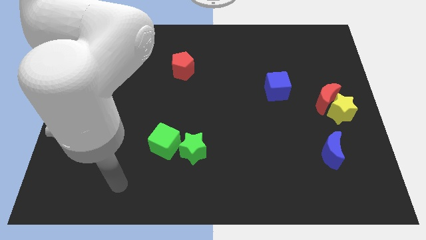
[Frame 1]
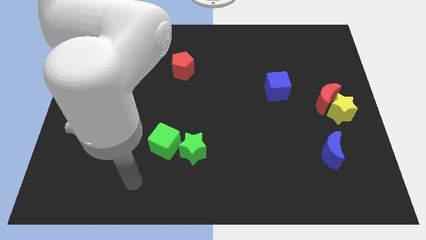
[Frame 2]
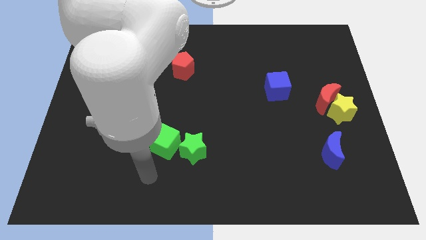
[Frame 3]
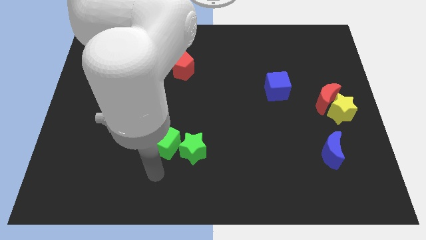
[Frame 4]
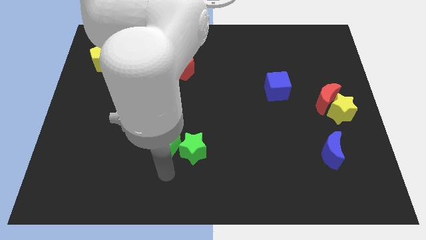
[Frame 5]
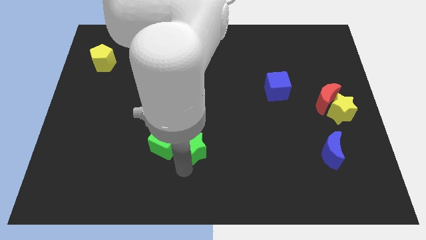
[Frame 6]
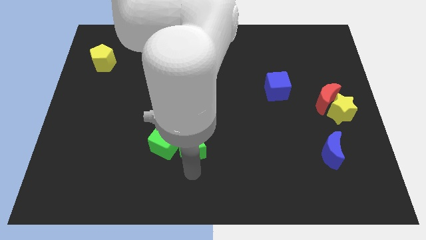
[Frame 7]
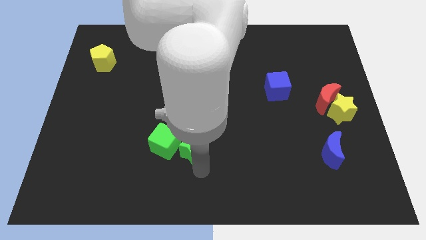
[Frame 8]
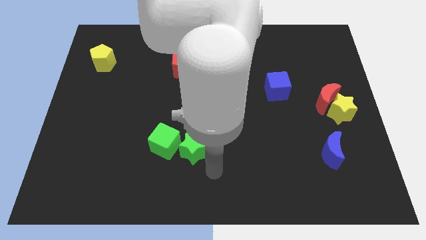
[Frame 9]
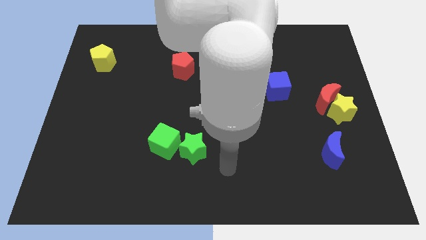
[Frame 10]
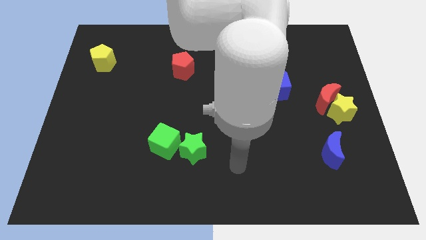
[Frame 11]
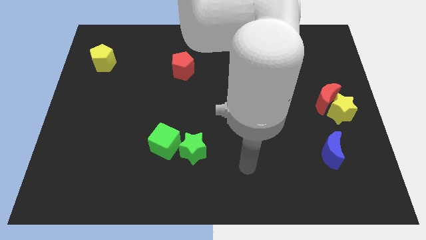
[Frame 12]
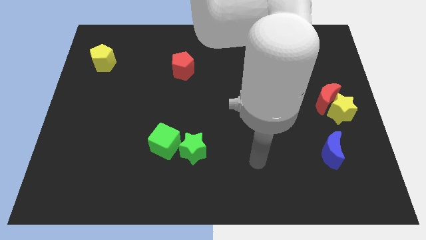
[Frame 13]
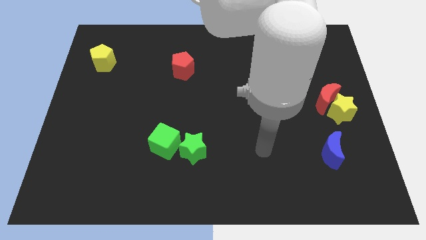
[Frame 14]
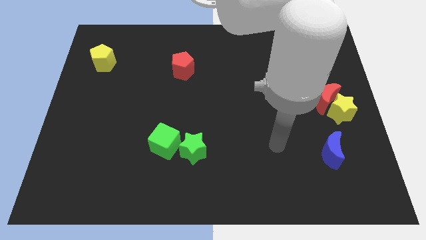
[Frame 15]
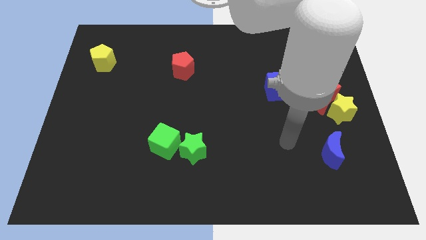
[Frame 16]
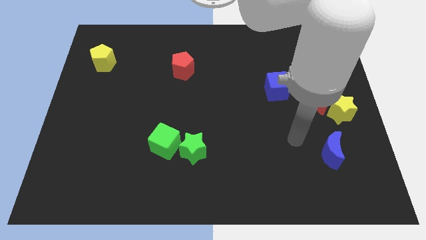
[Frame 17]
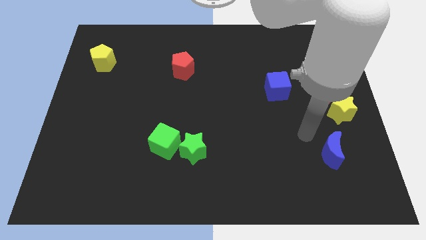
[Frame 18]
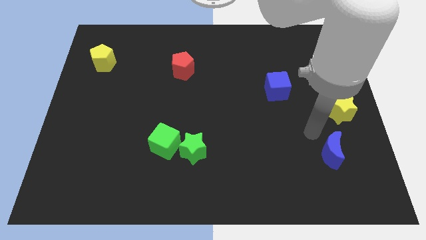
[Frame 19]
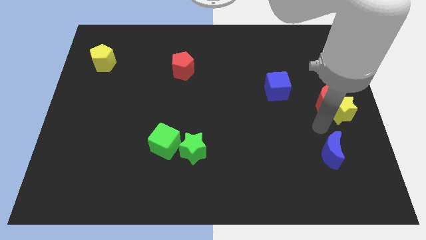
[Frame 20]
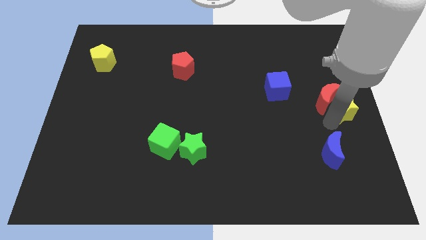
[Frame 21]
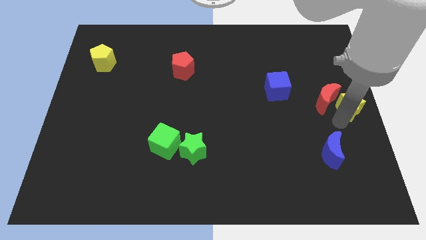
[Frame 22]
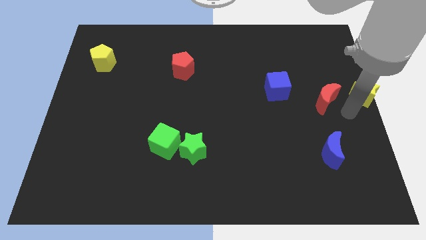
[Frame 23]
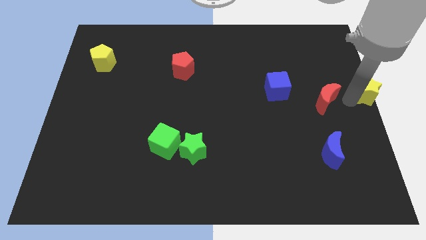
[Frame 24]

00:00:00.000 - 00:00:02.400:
separate the red moon from the yellow star

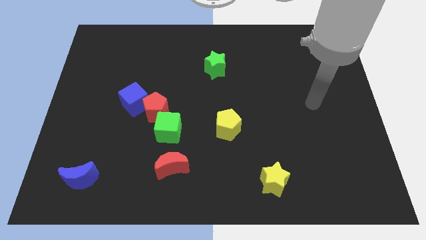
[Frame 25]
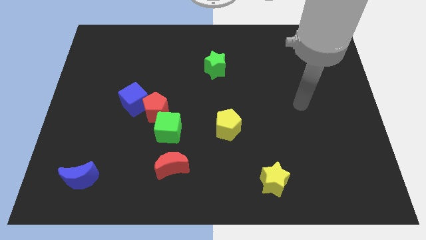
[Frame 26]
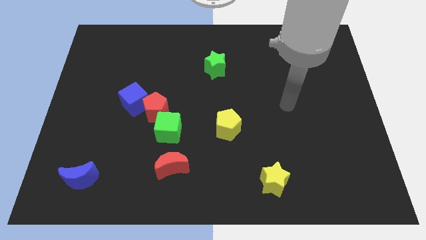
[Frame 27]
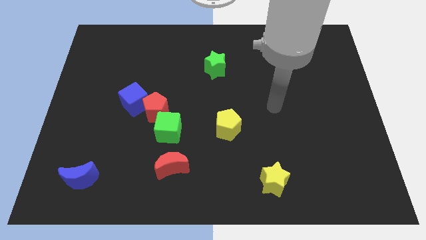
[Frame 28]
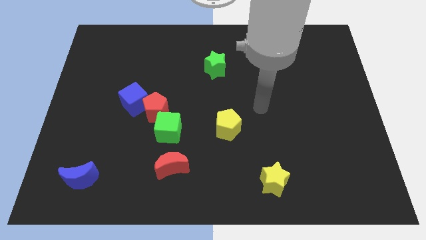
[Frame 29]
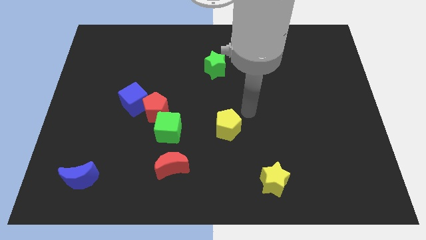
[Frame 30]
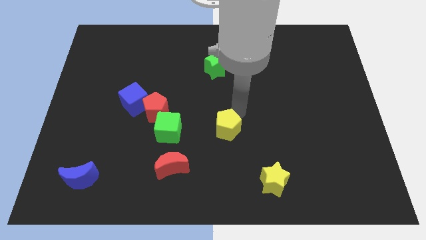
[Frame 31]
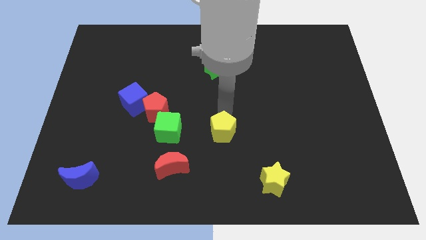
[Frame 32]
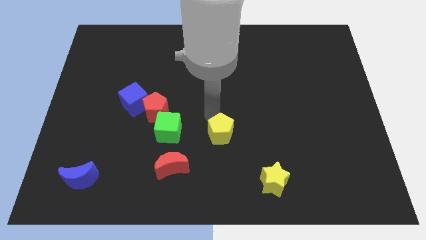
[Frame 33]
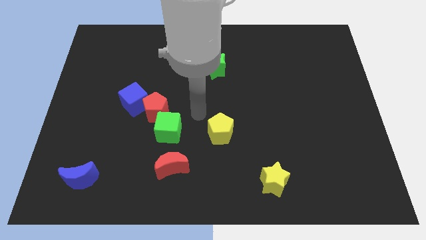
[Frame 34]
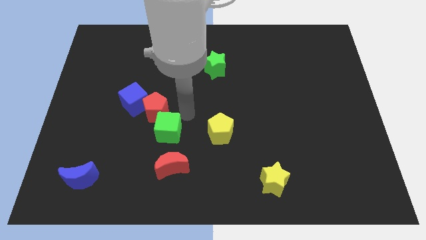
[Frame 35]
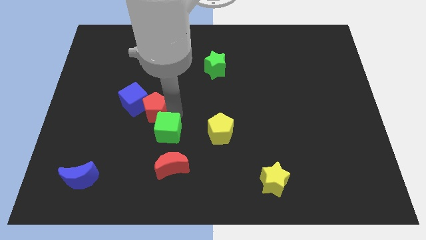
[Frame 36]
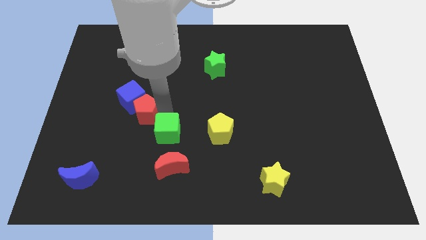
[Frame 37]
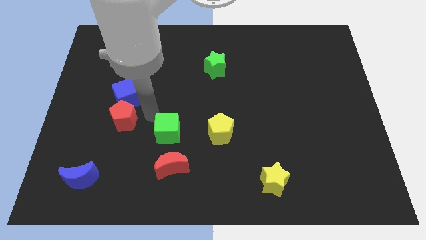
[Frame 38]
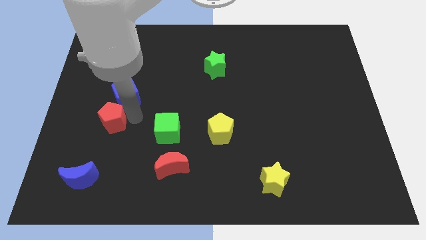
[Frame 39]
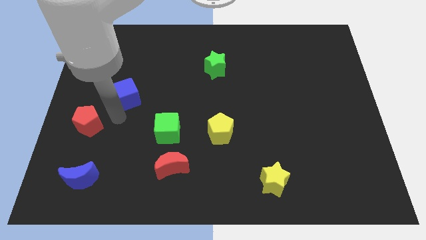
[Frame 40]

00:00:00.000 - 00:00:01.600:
pull the blue cube apart from the red pentagon

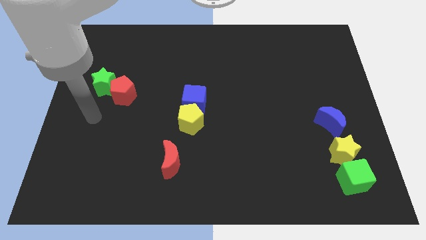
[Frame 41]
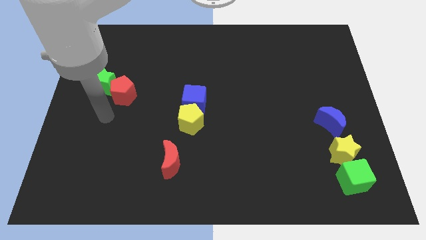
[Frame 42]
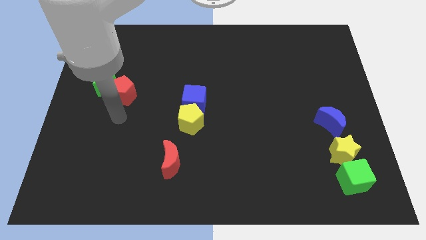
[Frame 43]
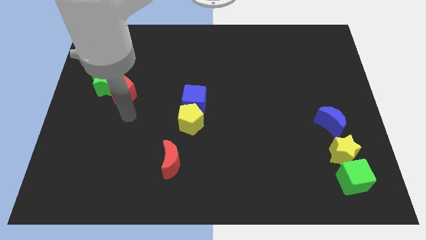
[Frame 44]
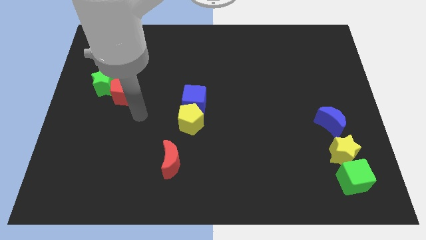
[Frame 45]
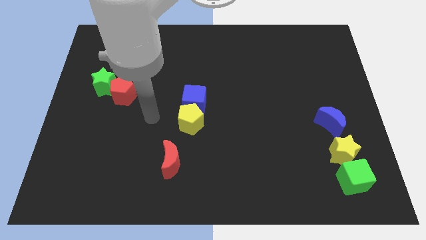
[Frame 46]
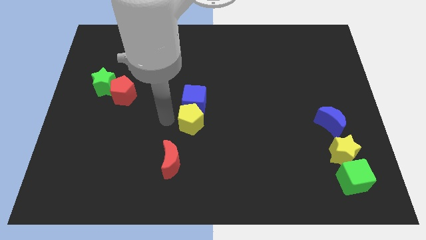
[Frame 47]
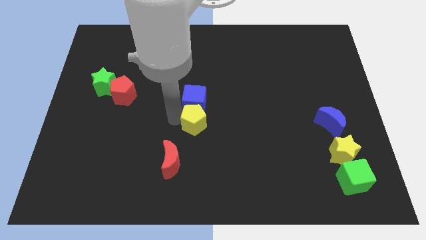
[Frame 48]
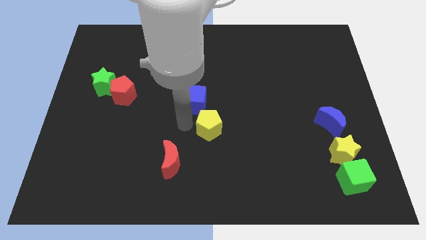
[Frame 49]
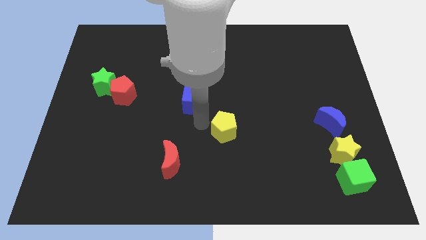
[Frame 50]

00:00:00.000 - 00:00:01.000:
pull the blue cube apart from the yellow pentagon

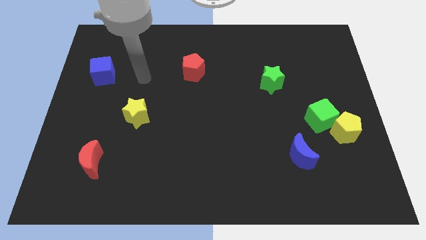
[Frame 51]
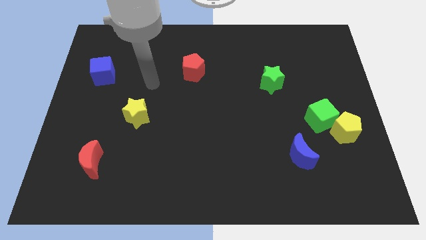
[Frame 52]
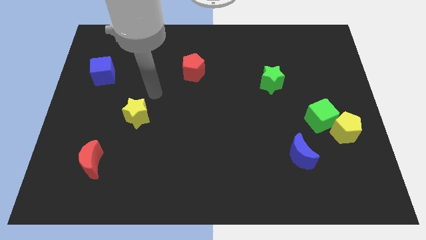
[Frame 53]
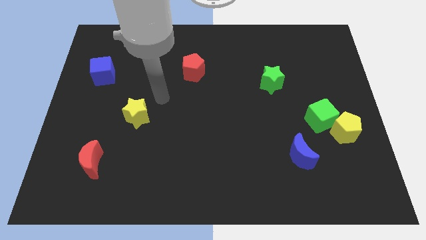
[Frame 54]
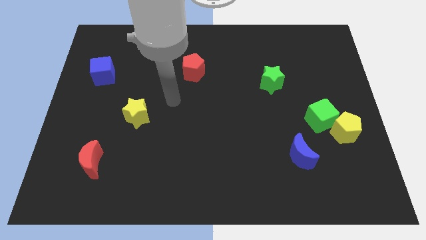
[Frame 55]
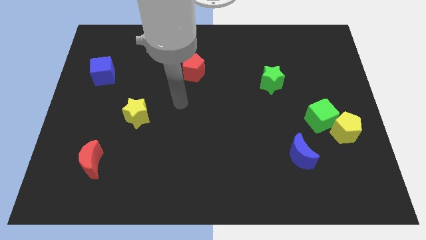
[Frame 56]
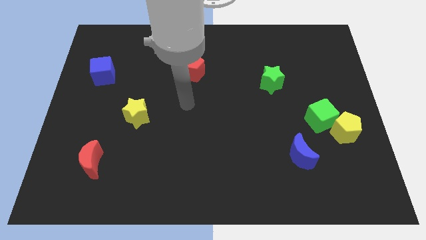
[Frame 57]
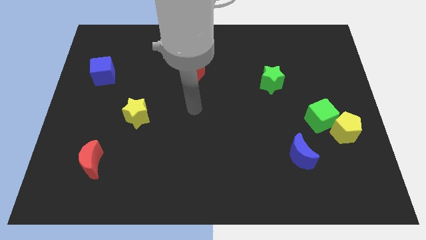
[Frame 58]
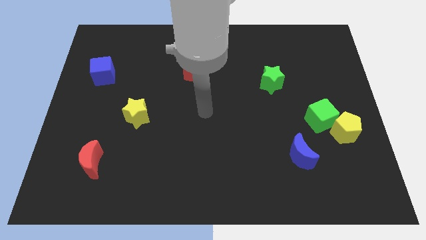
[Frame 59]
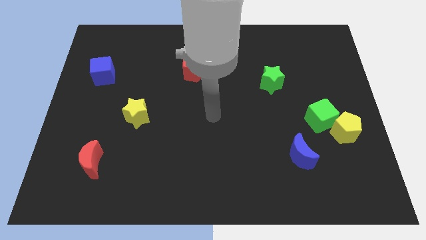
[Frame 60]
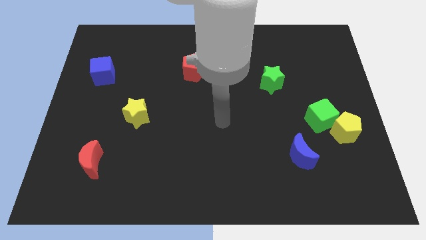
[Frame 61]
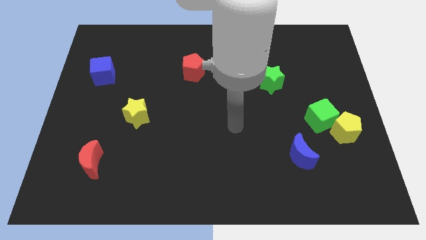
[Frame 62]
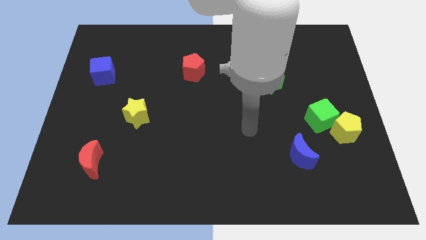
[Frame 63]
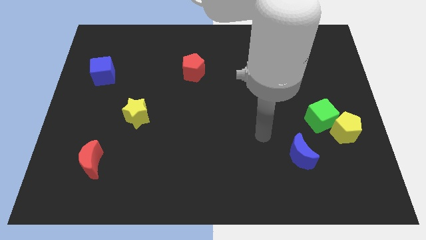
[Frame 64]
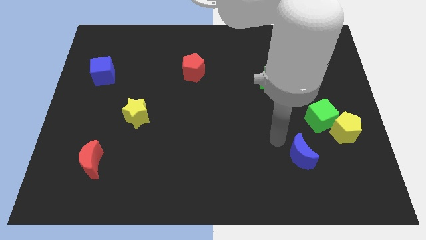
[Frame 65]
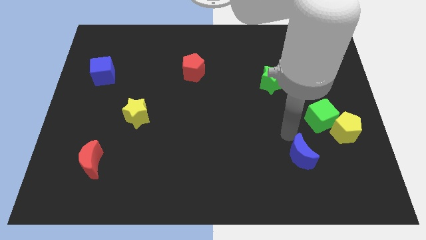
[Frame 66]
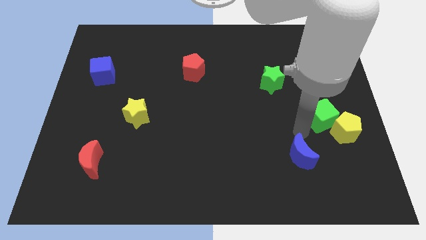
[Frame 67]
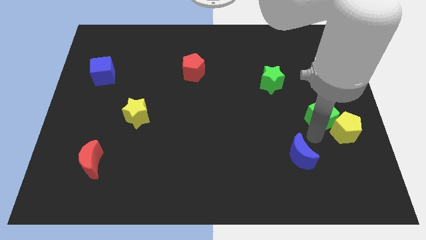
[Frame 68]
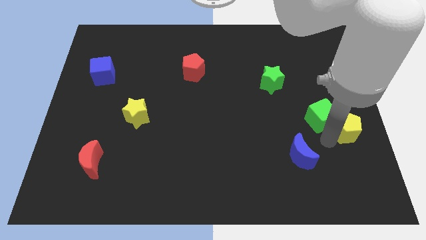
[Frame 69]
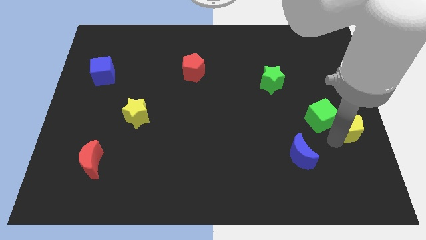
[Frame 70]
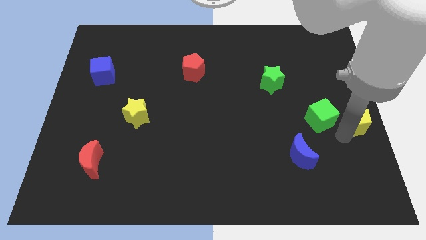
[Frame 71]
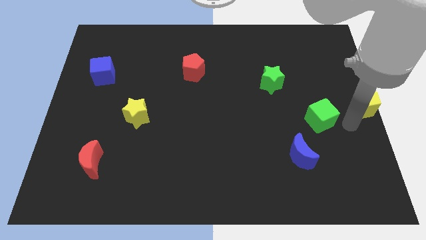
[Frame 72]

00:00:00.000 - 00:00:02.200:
move the green cube away from the yellow pentagon

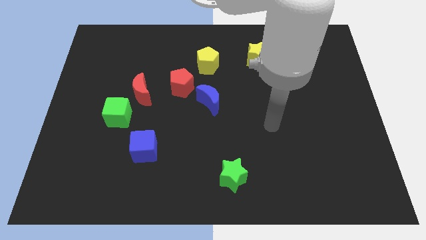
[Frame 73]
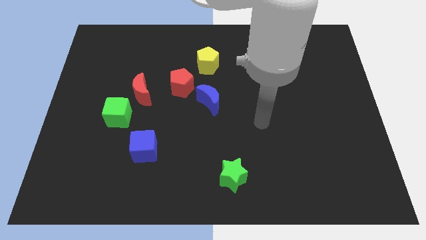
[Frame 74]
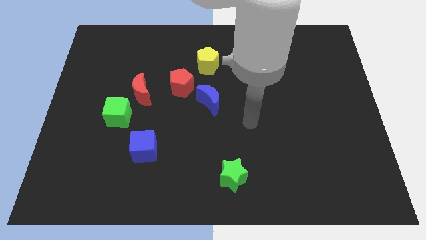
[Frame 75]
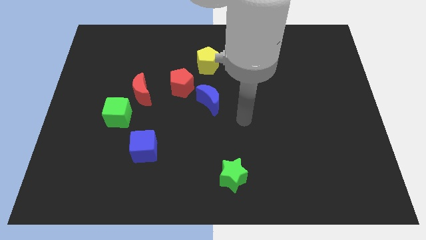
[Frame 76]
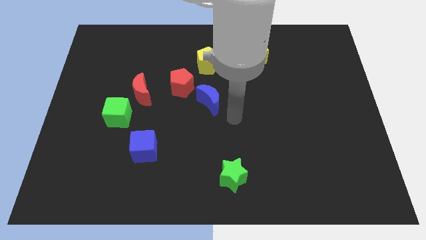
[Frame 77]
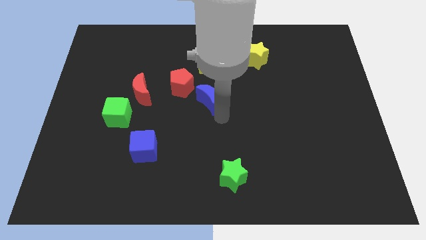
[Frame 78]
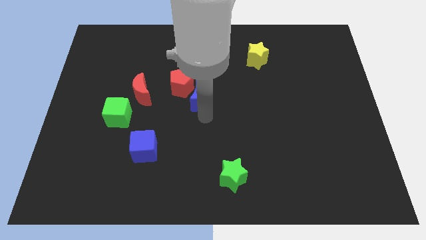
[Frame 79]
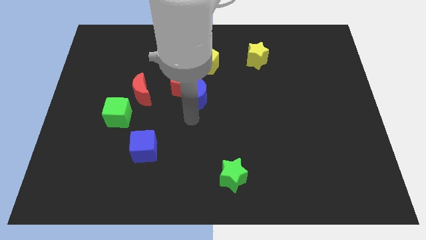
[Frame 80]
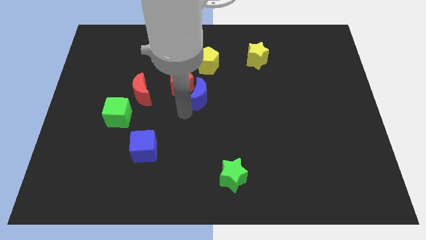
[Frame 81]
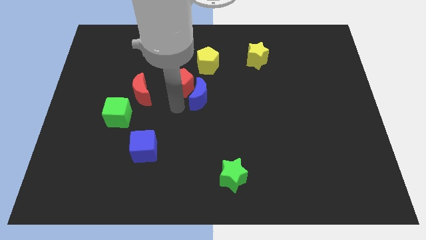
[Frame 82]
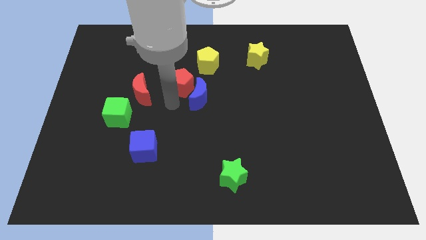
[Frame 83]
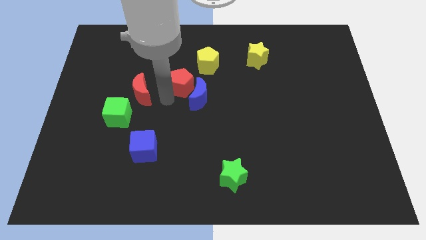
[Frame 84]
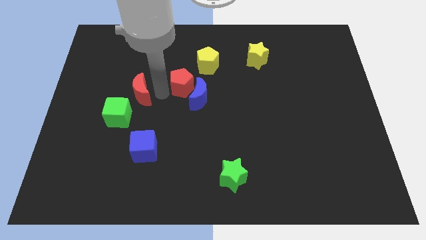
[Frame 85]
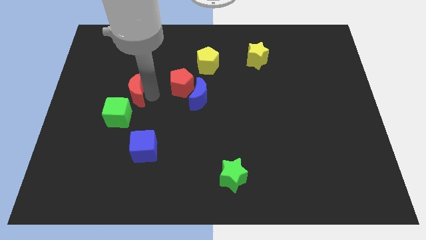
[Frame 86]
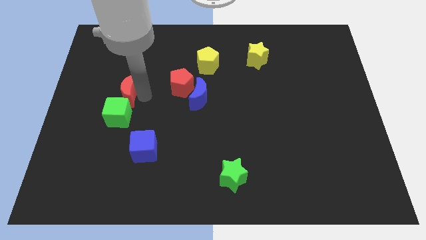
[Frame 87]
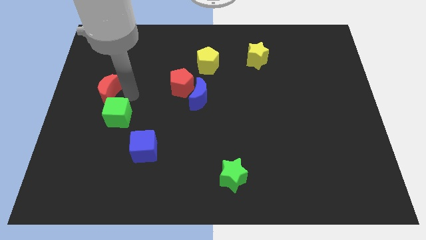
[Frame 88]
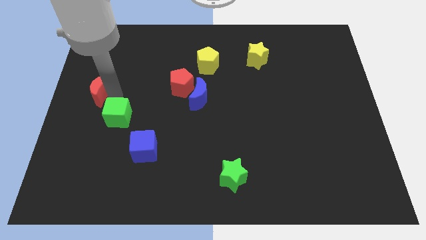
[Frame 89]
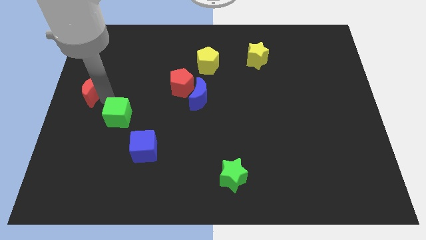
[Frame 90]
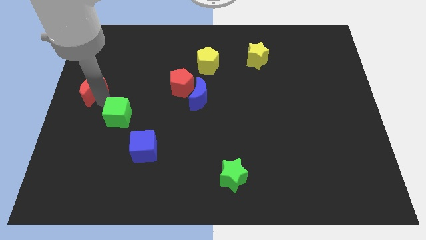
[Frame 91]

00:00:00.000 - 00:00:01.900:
pull the green cube apart from the red moon

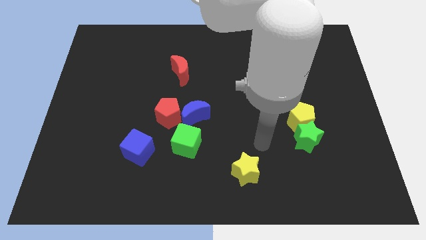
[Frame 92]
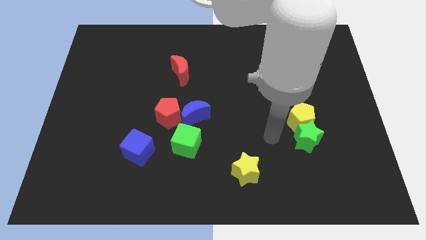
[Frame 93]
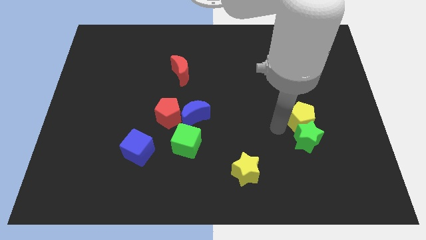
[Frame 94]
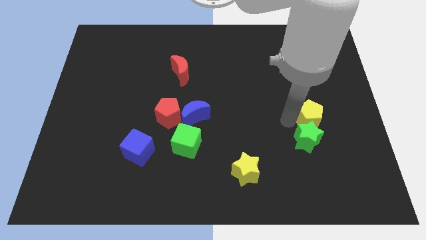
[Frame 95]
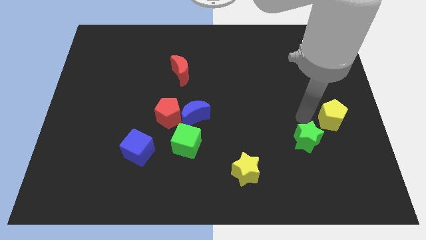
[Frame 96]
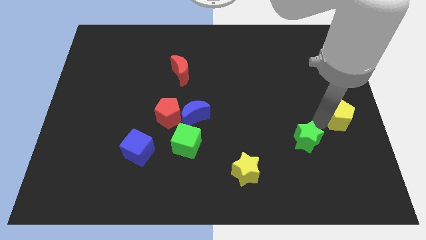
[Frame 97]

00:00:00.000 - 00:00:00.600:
separate the green star from the yellow pentagon
